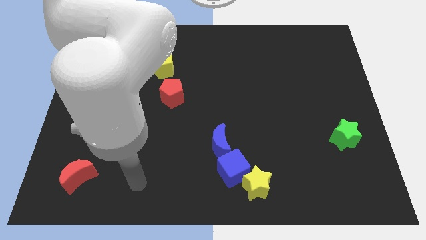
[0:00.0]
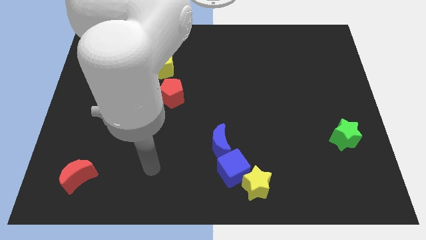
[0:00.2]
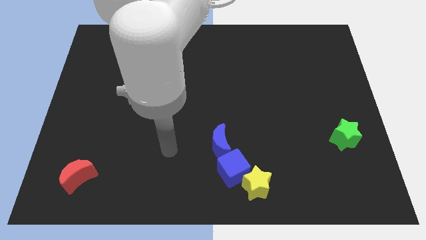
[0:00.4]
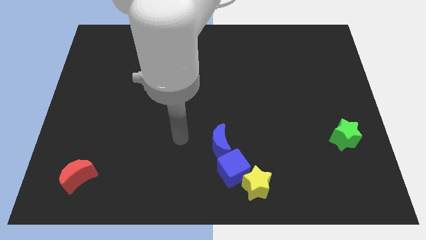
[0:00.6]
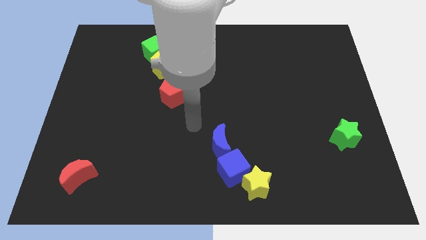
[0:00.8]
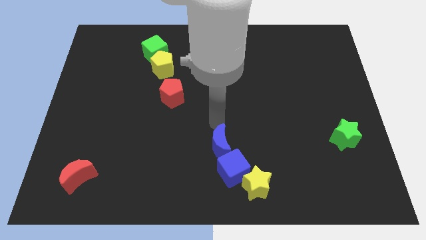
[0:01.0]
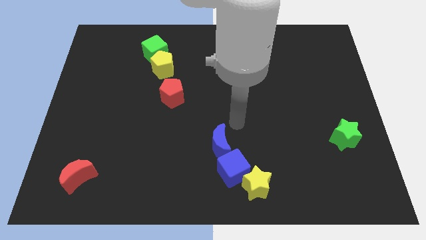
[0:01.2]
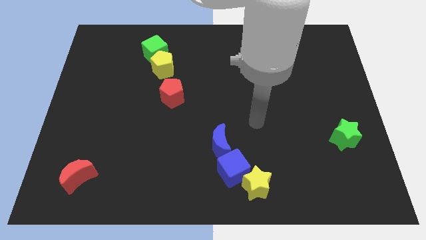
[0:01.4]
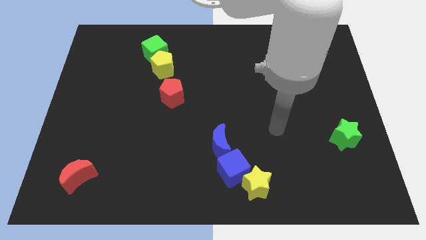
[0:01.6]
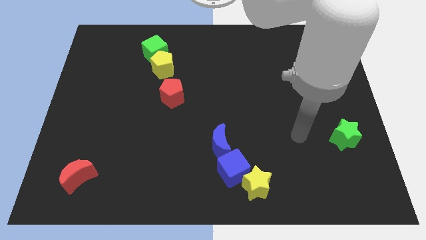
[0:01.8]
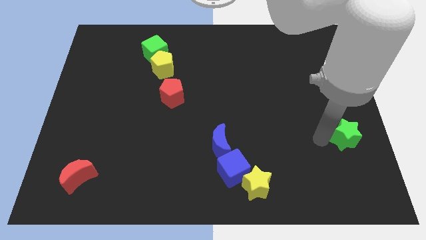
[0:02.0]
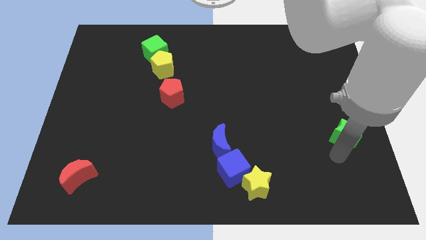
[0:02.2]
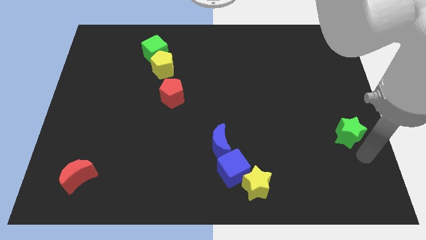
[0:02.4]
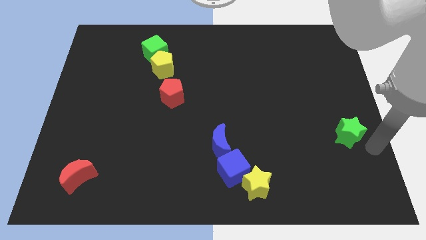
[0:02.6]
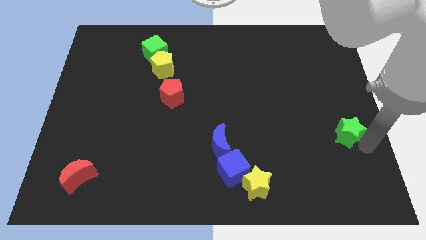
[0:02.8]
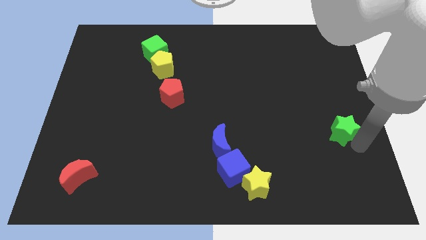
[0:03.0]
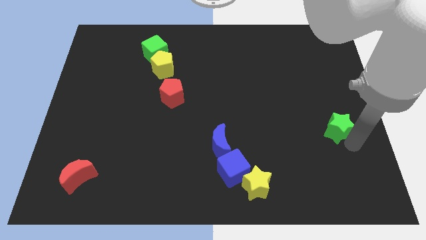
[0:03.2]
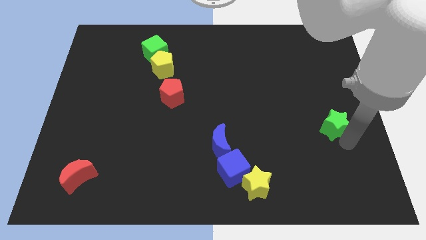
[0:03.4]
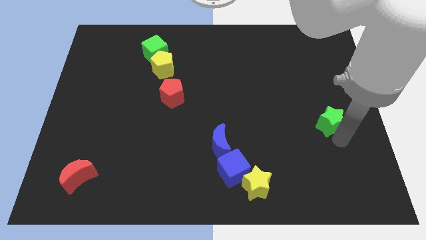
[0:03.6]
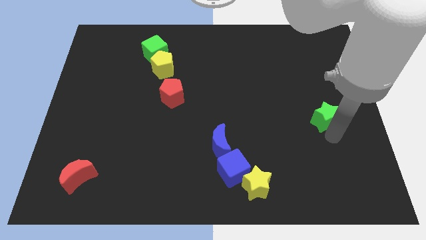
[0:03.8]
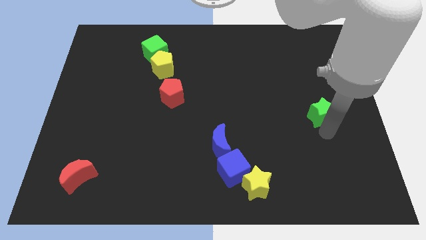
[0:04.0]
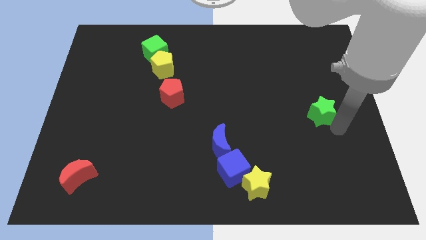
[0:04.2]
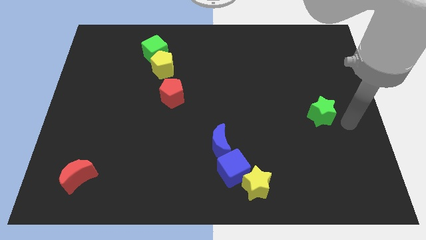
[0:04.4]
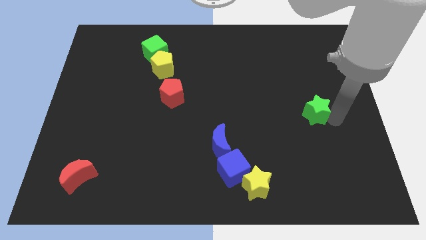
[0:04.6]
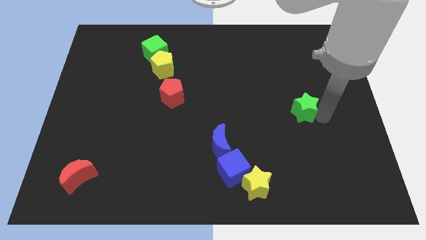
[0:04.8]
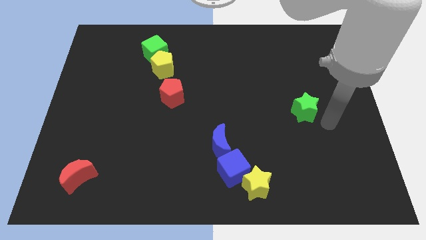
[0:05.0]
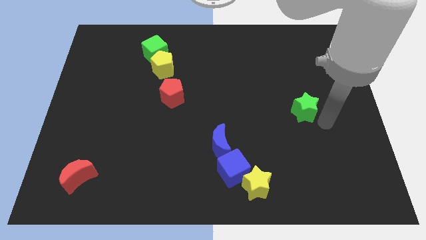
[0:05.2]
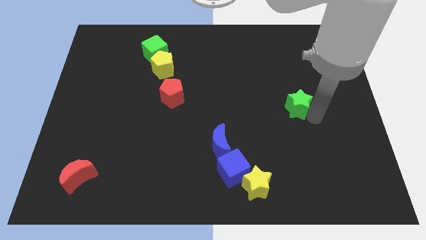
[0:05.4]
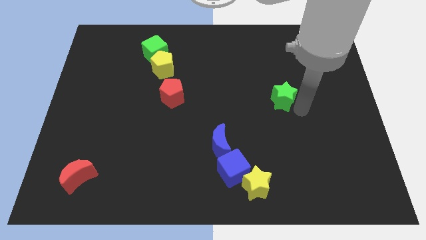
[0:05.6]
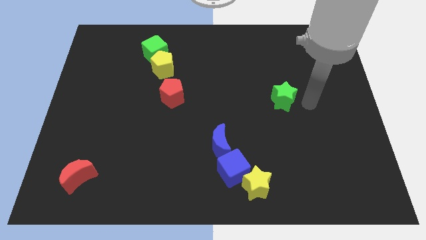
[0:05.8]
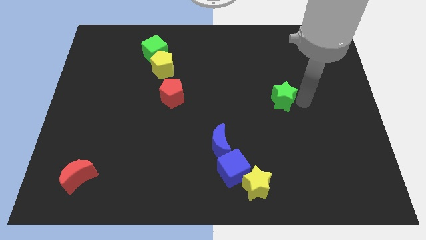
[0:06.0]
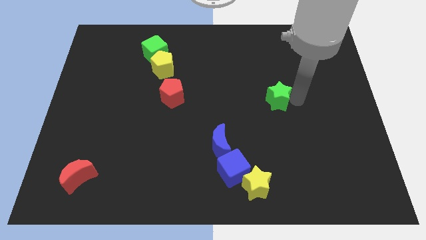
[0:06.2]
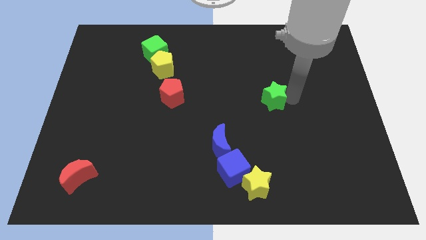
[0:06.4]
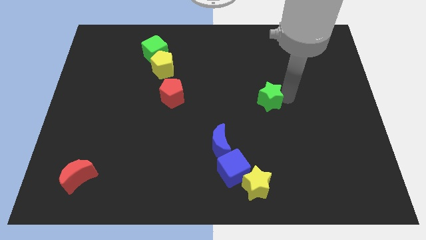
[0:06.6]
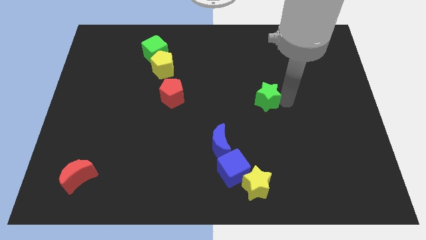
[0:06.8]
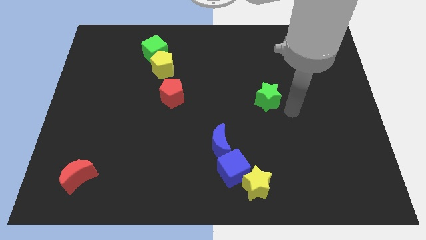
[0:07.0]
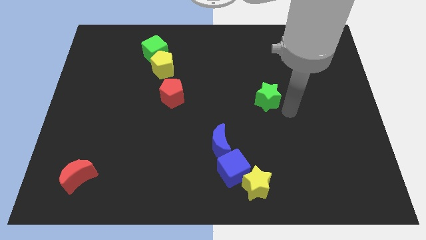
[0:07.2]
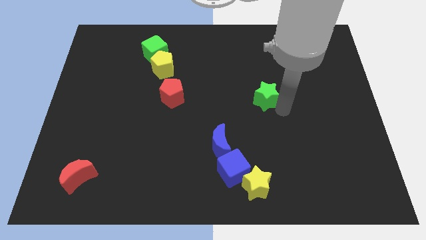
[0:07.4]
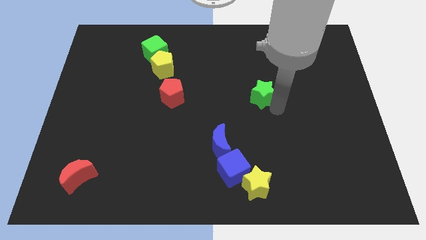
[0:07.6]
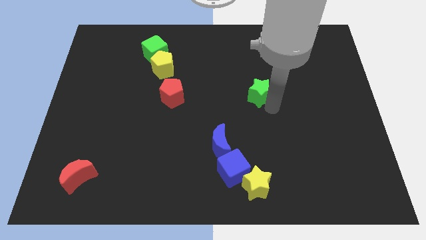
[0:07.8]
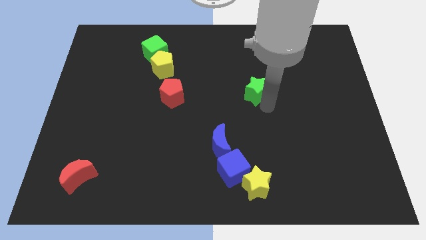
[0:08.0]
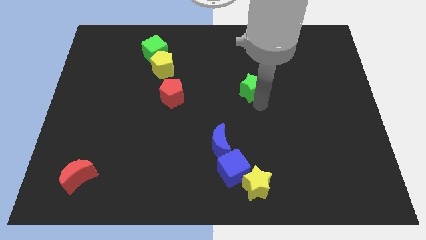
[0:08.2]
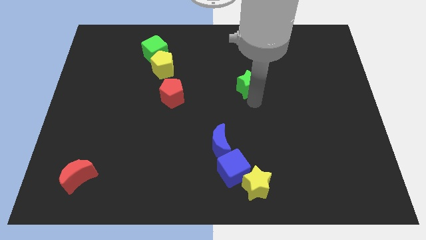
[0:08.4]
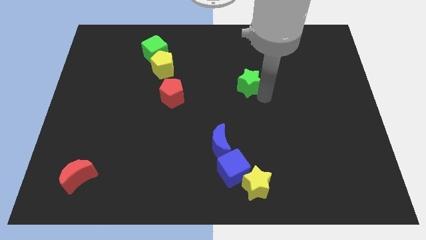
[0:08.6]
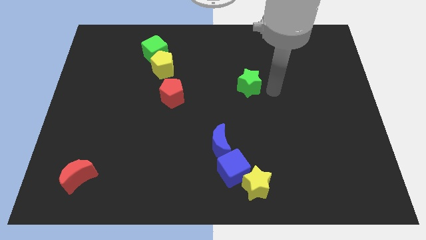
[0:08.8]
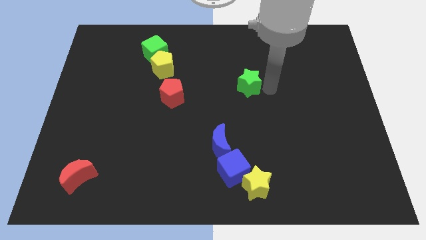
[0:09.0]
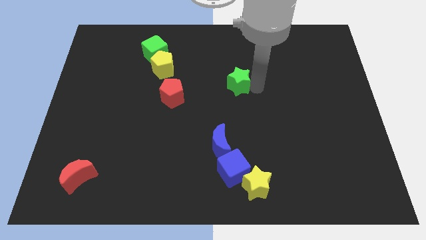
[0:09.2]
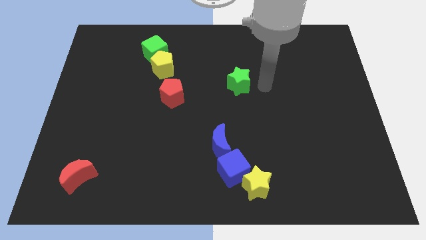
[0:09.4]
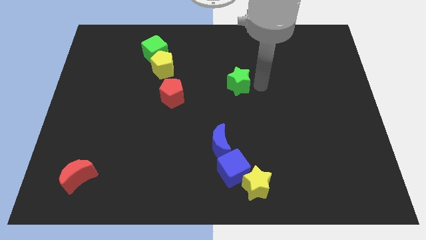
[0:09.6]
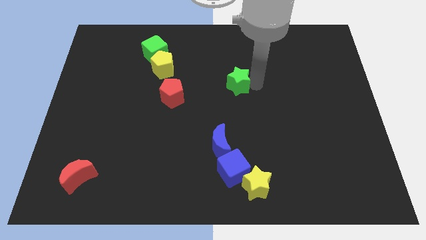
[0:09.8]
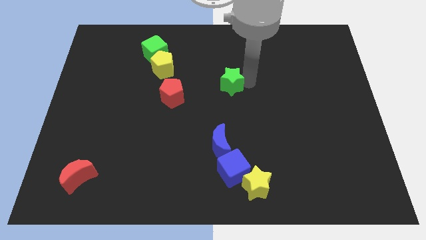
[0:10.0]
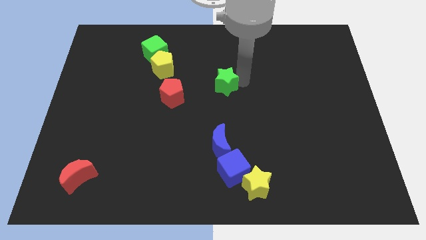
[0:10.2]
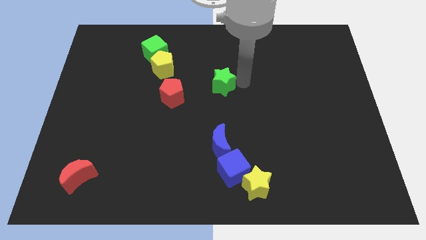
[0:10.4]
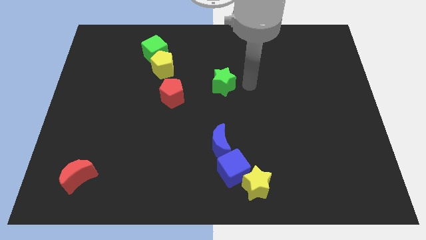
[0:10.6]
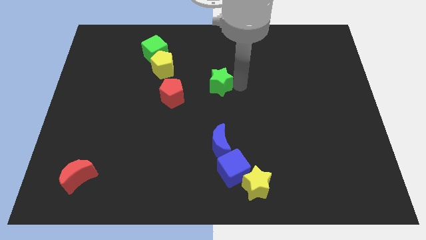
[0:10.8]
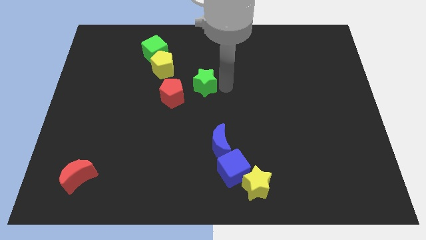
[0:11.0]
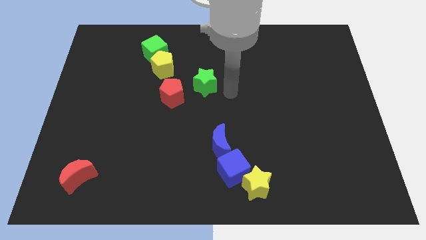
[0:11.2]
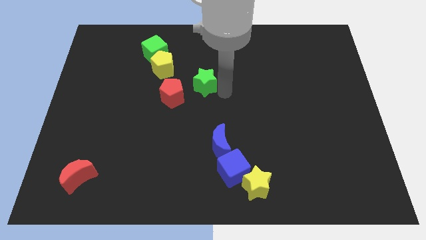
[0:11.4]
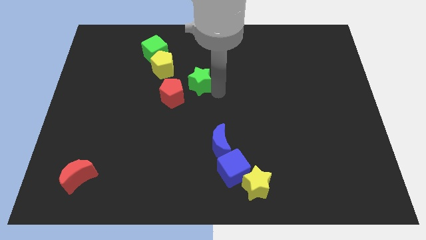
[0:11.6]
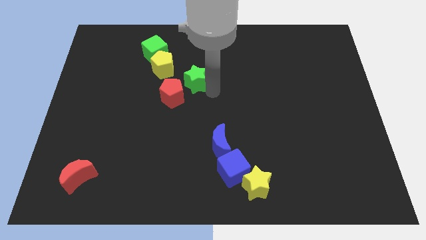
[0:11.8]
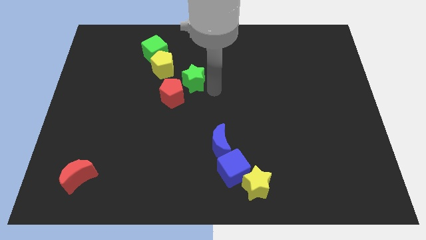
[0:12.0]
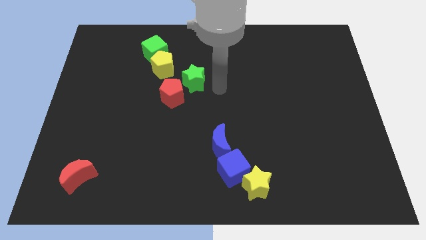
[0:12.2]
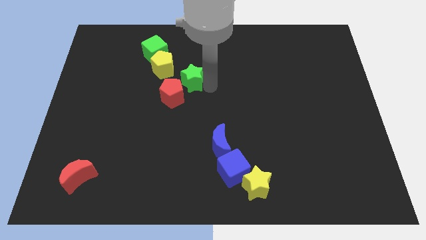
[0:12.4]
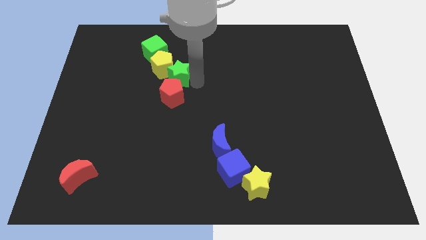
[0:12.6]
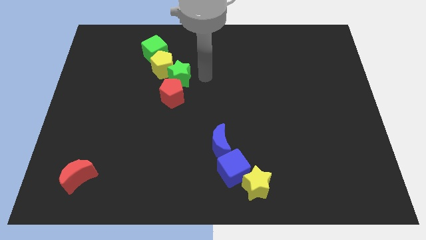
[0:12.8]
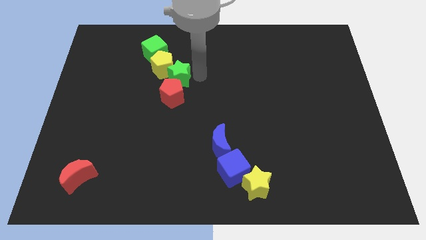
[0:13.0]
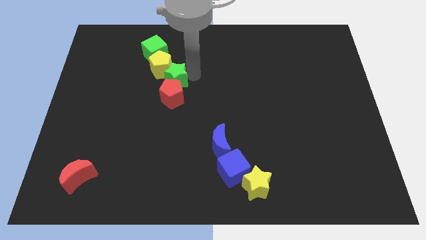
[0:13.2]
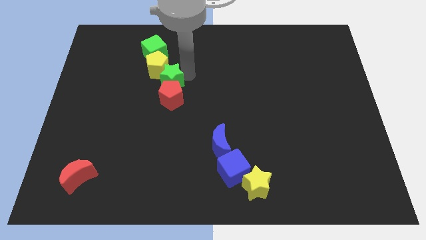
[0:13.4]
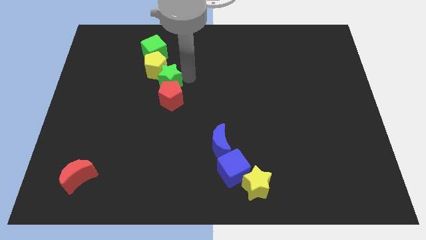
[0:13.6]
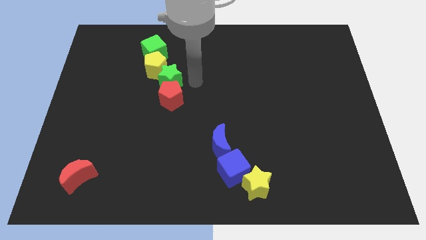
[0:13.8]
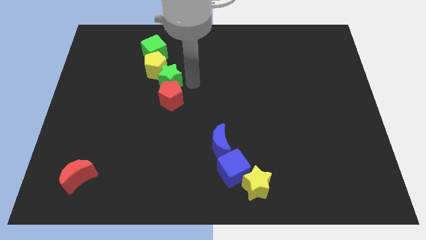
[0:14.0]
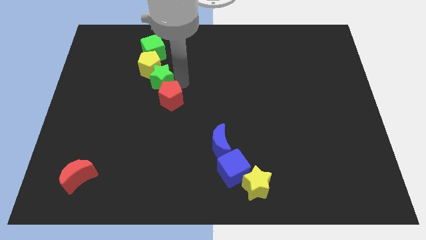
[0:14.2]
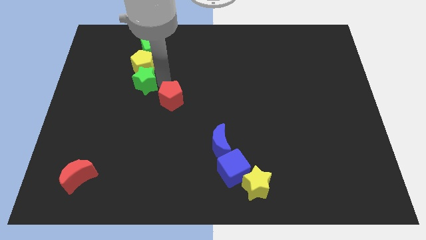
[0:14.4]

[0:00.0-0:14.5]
push the green star to the bottom left side of the yellow pentagon
